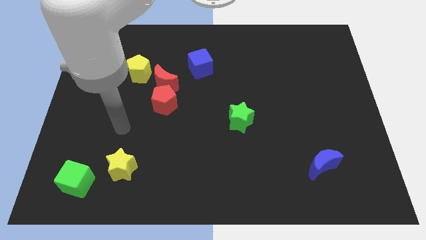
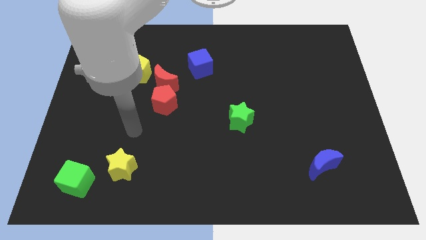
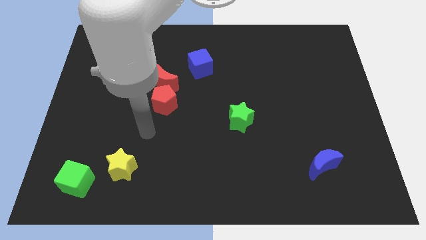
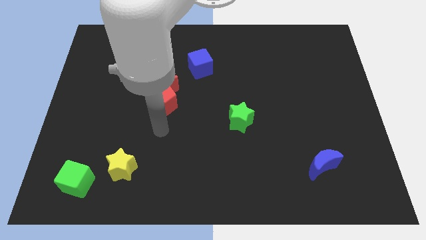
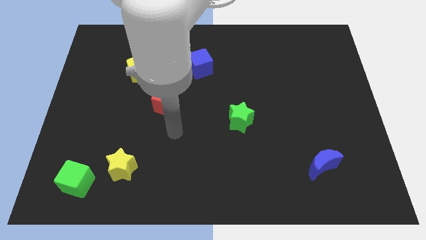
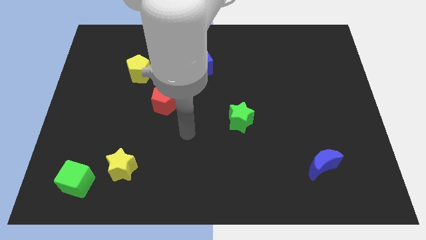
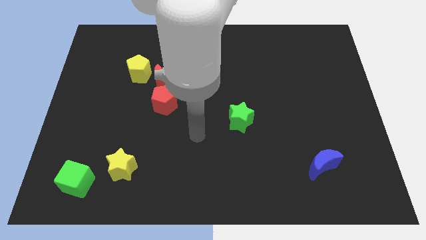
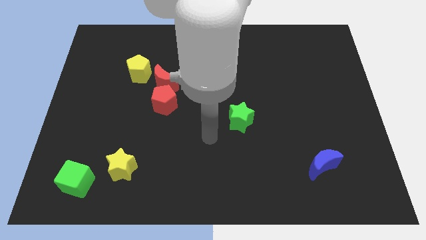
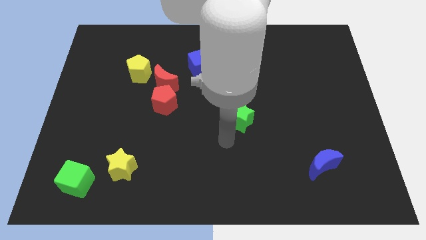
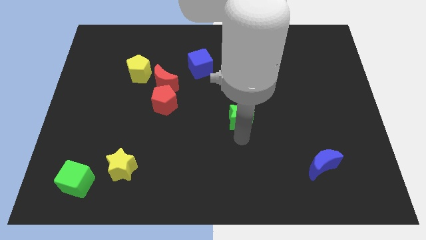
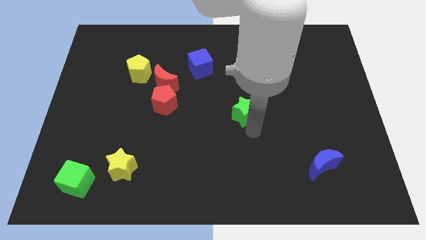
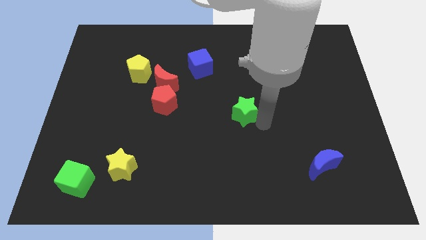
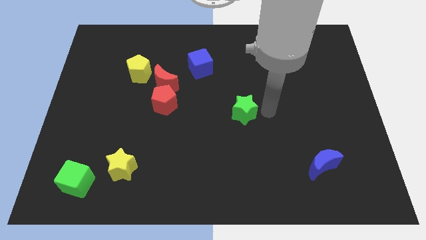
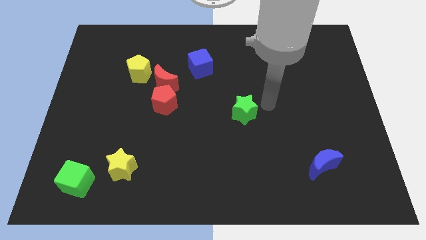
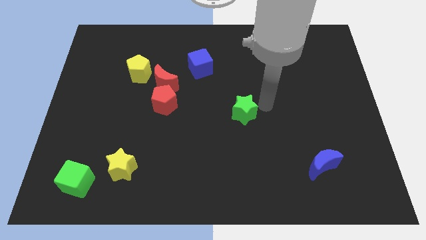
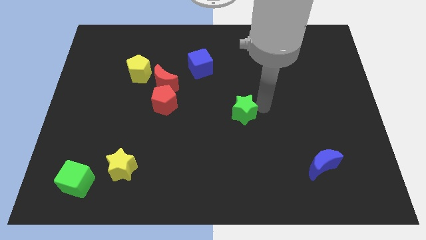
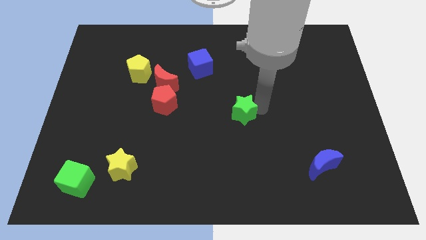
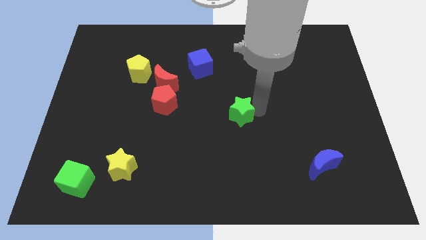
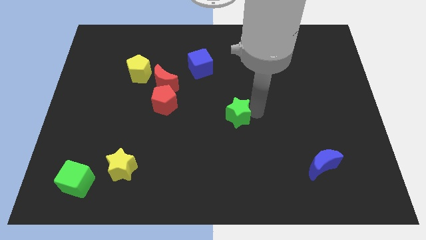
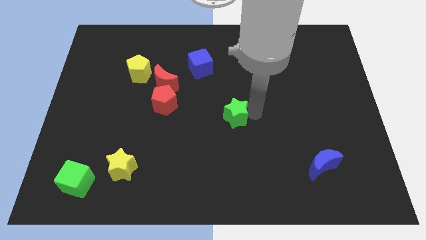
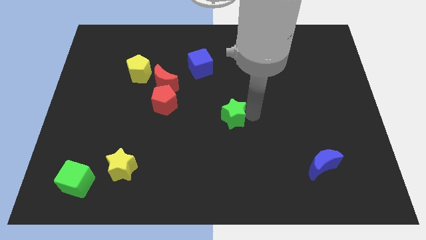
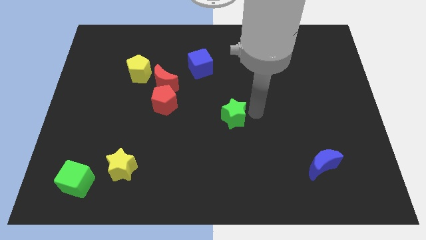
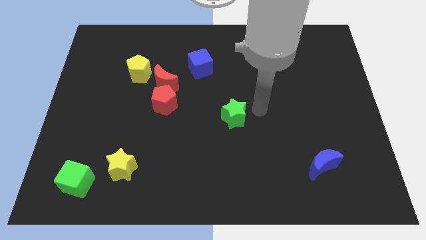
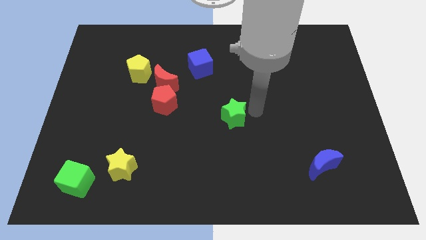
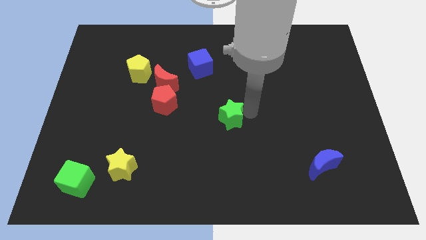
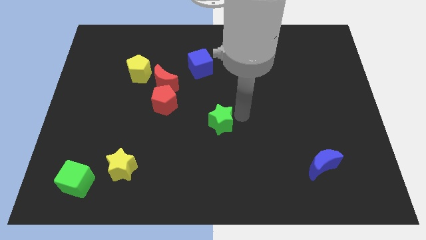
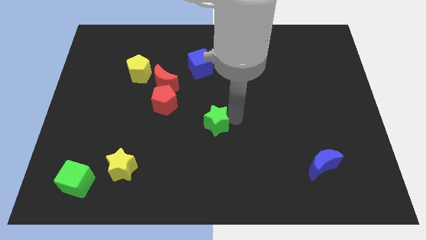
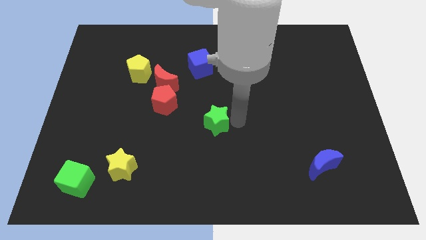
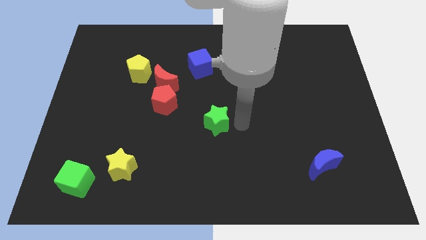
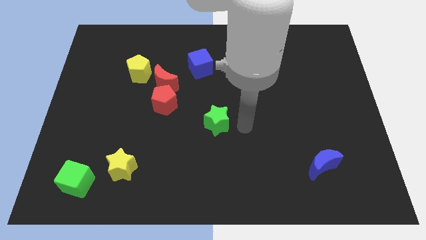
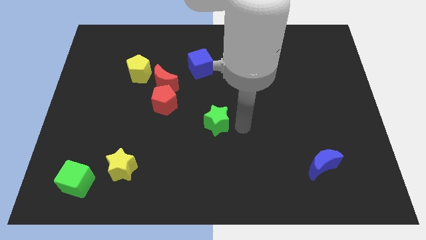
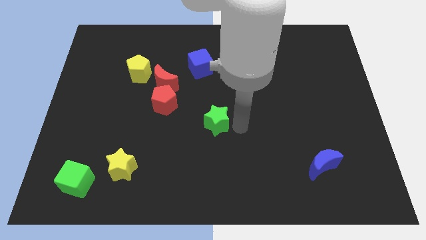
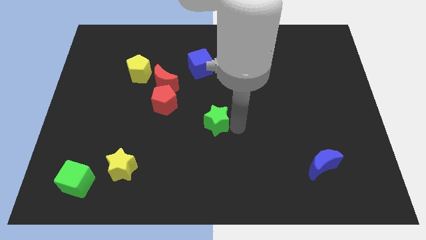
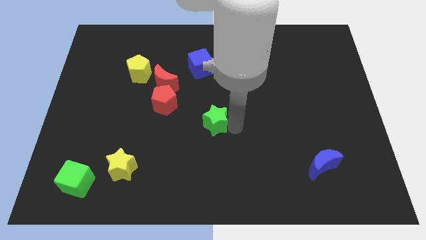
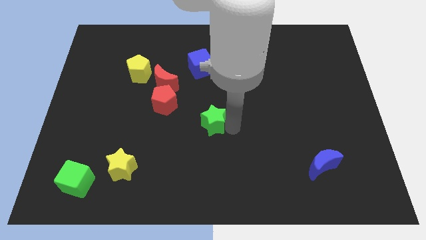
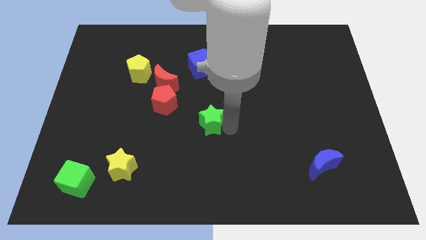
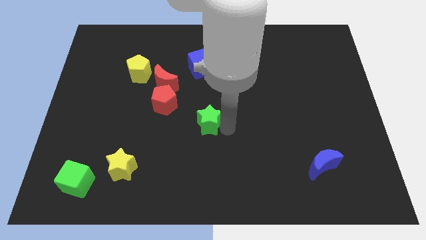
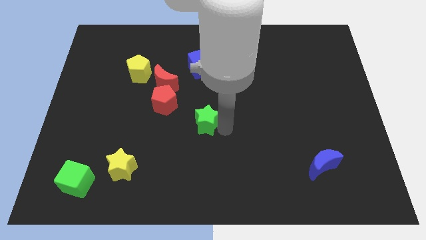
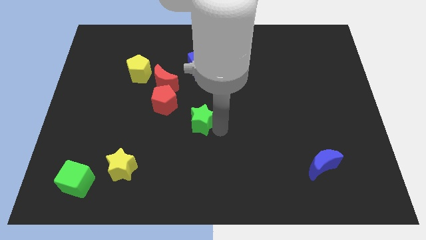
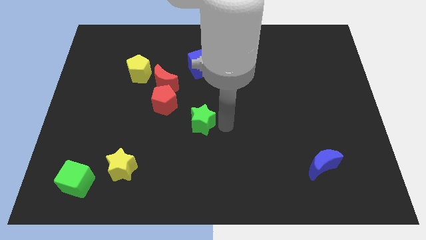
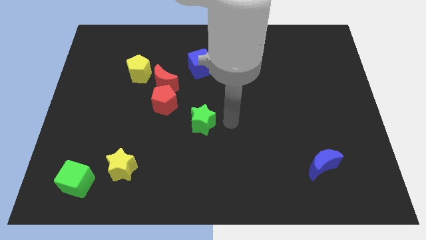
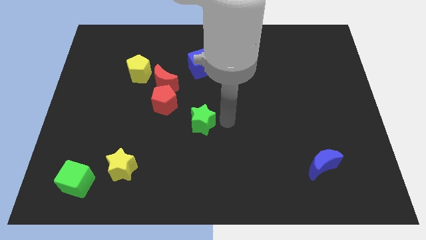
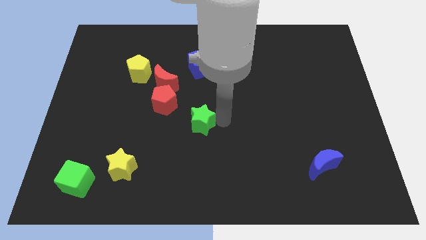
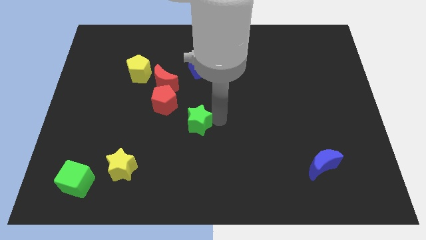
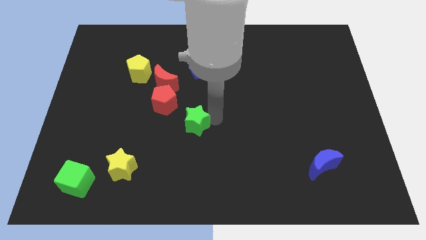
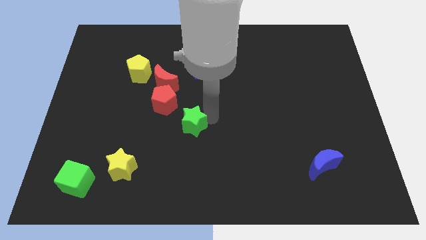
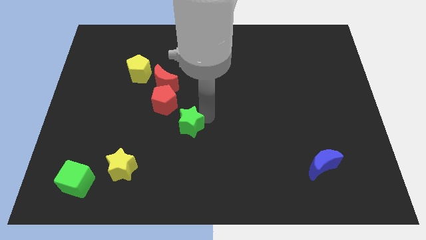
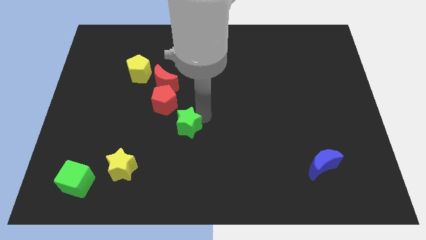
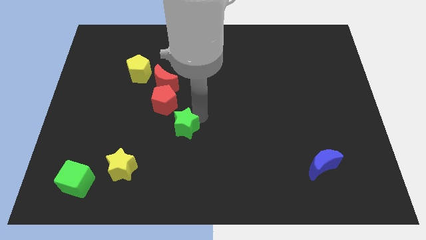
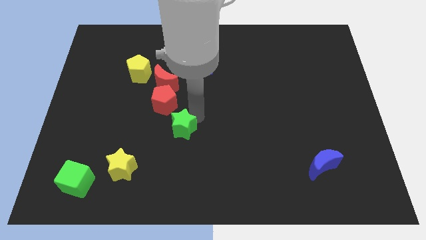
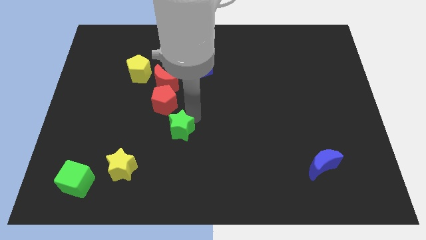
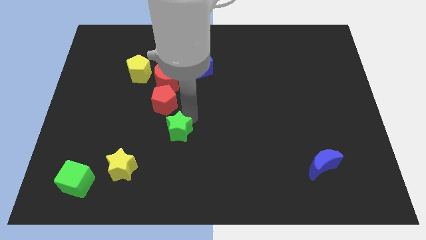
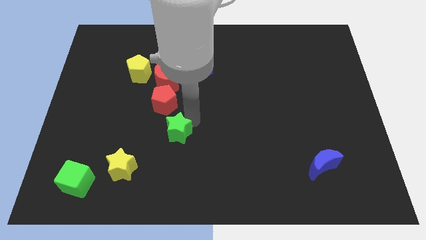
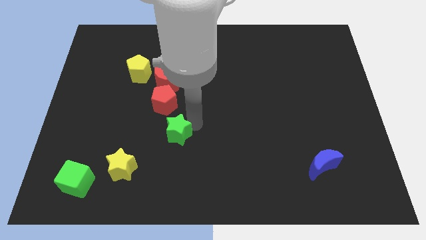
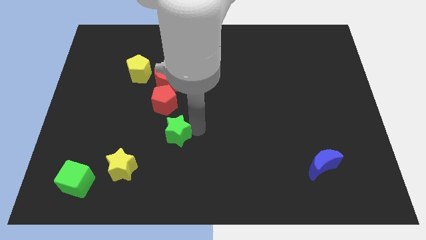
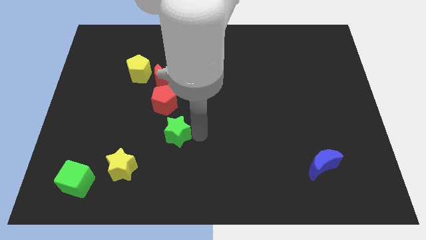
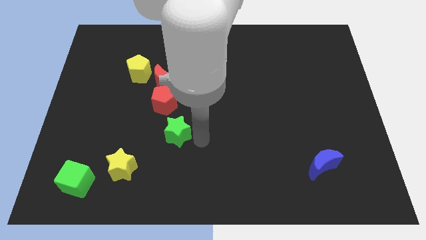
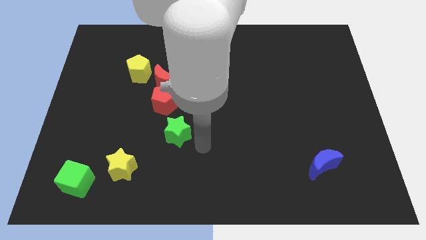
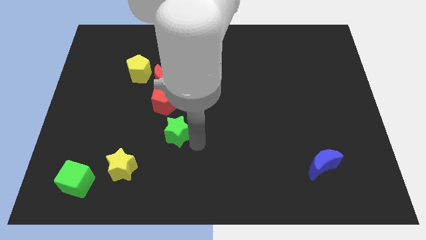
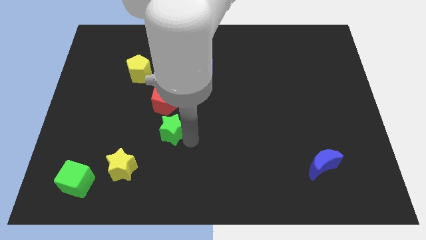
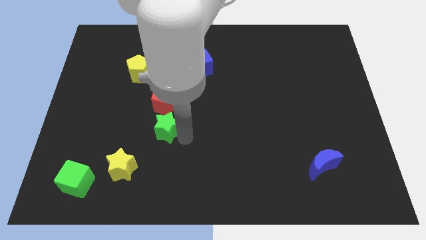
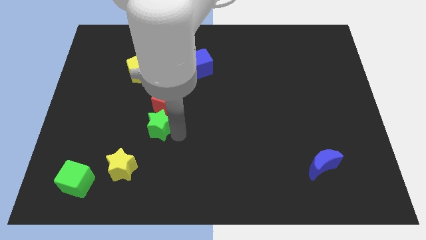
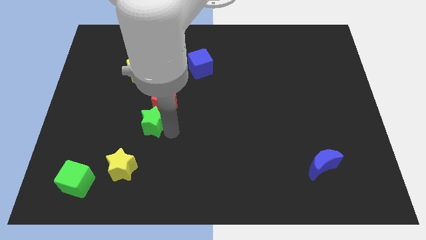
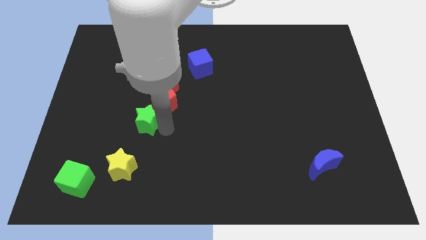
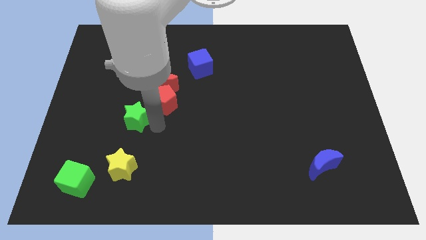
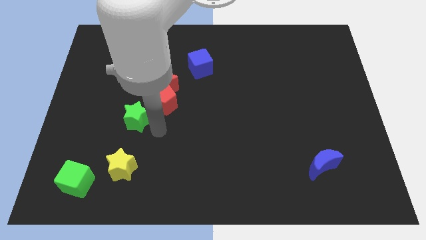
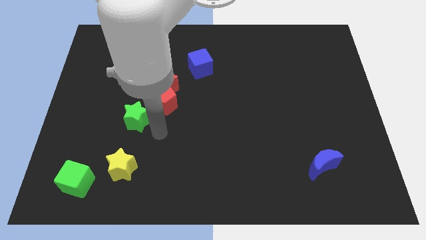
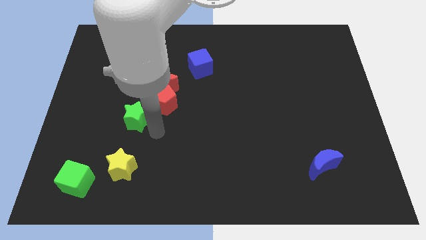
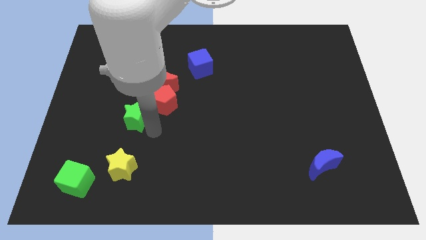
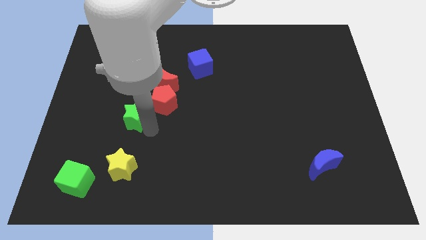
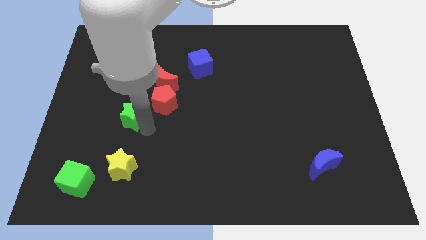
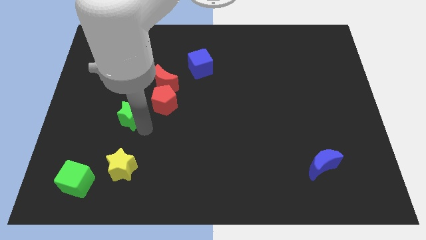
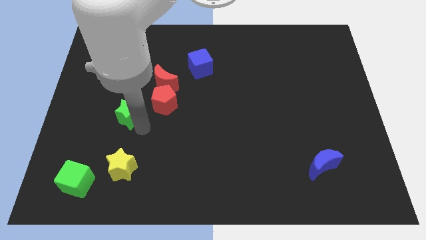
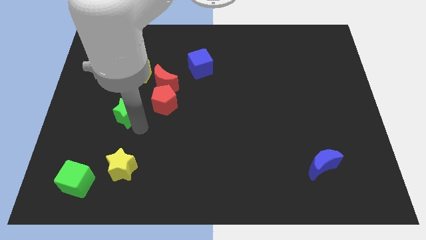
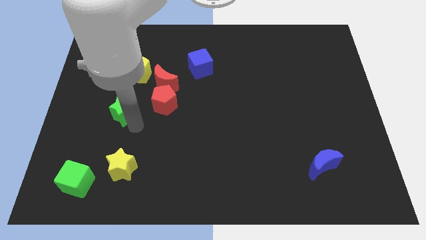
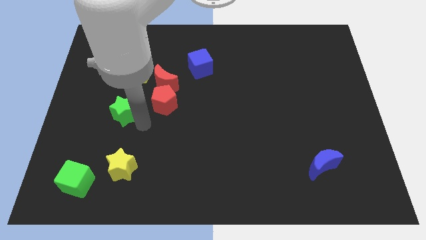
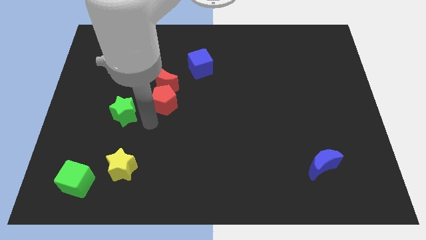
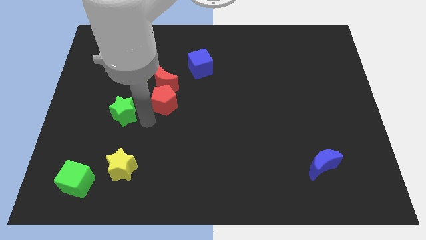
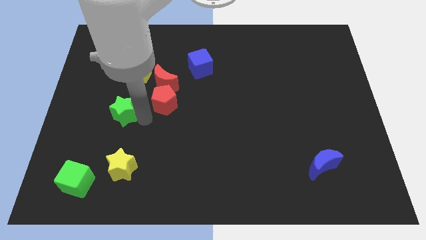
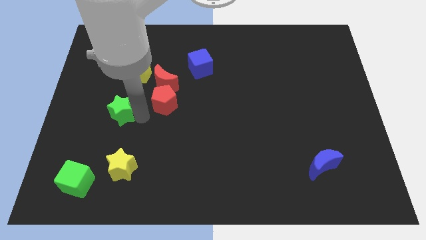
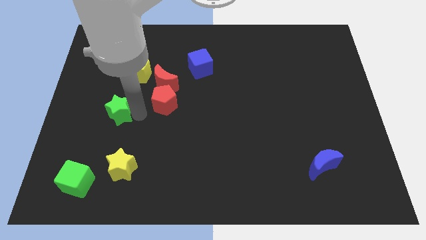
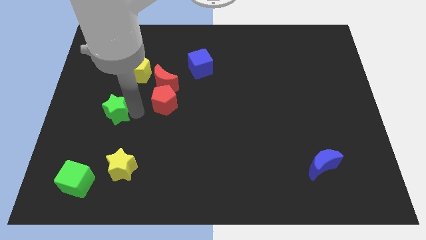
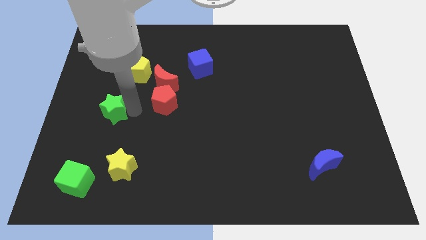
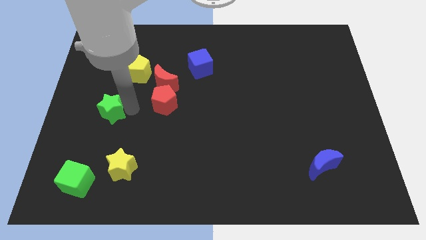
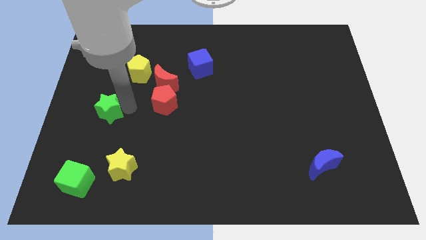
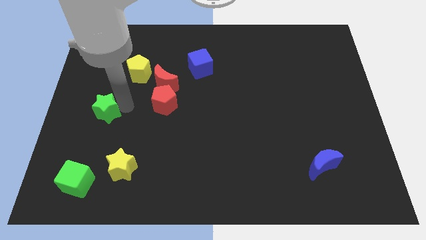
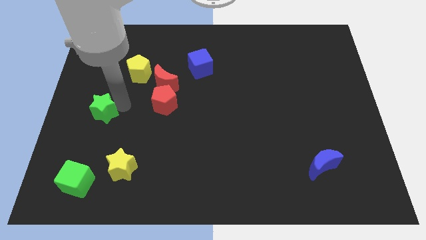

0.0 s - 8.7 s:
put the green star to the center left

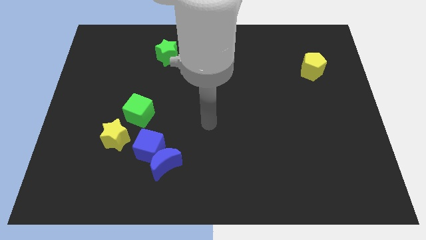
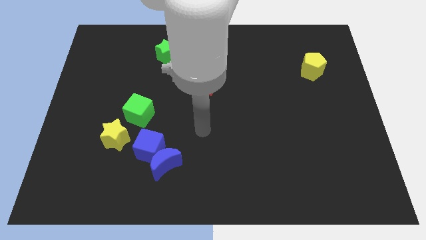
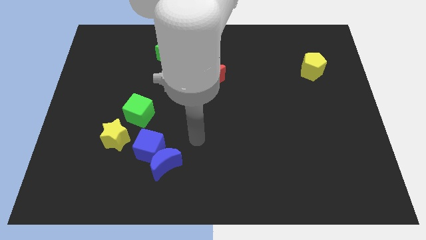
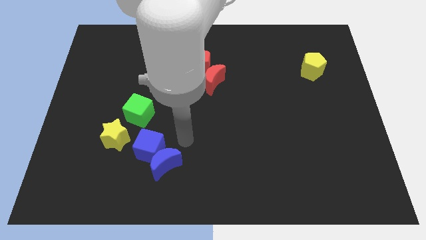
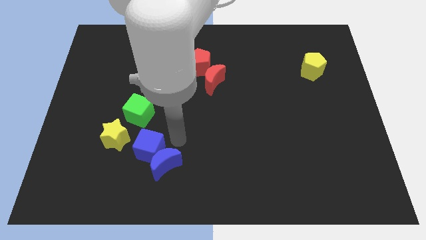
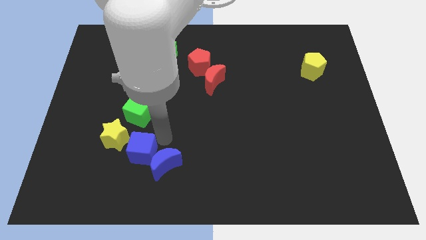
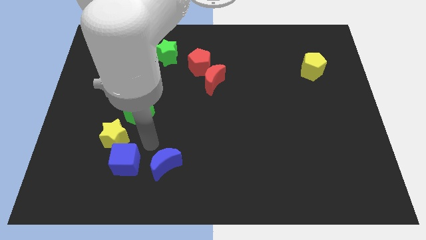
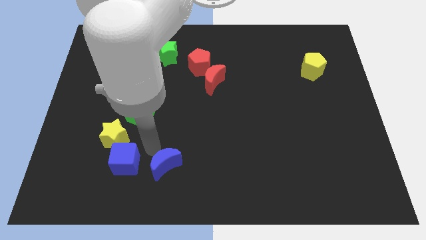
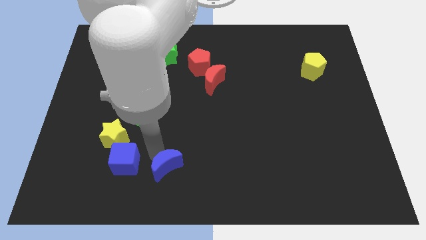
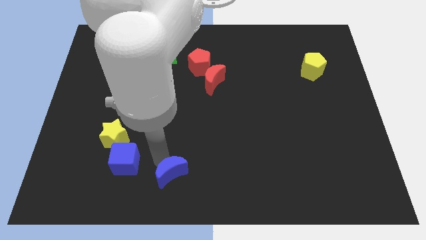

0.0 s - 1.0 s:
slide the blue moon to the bottom
